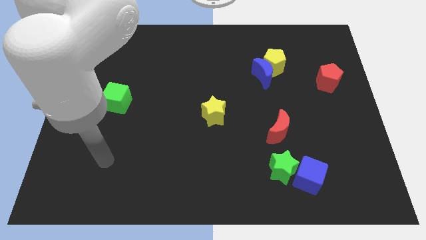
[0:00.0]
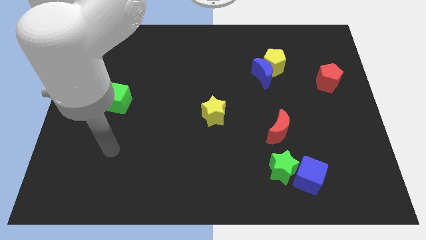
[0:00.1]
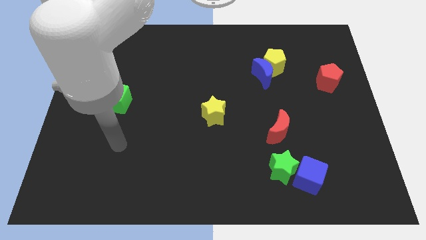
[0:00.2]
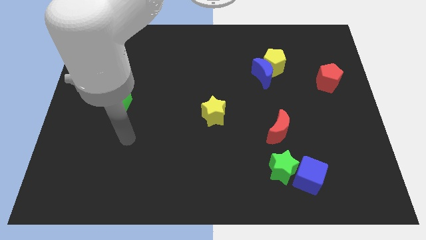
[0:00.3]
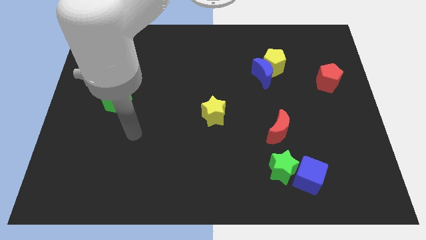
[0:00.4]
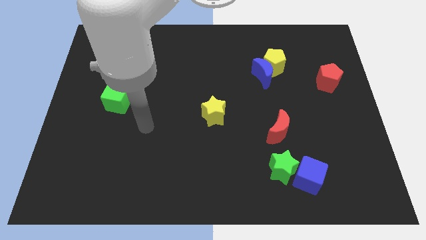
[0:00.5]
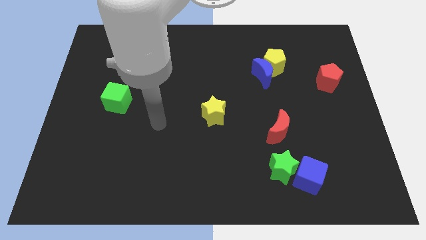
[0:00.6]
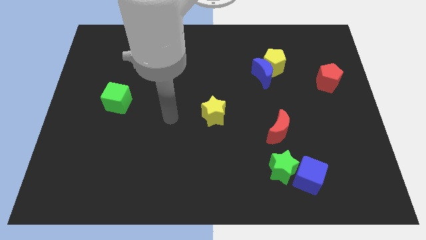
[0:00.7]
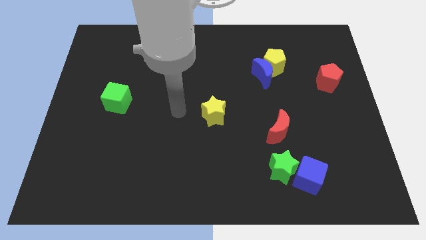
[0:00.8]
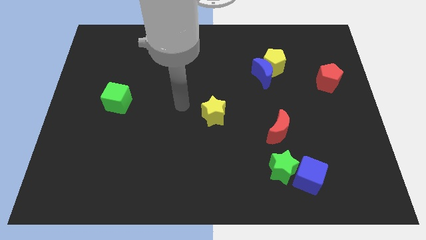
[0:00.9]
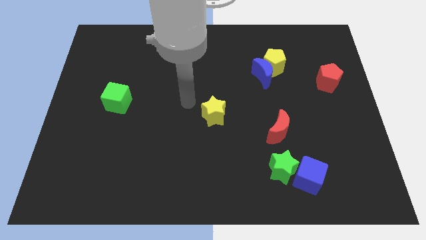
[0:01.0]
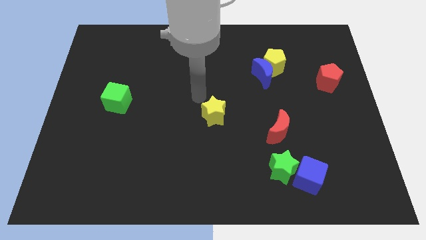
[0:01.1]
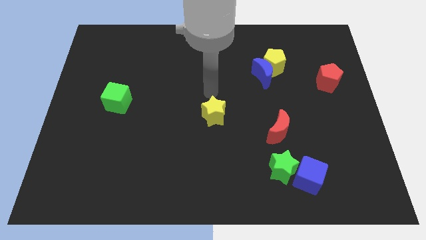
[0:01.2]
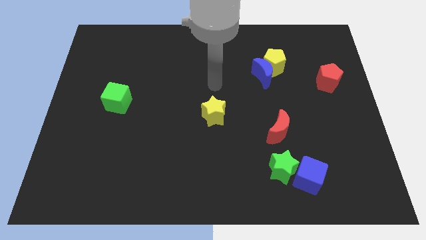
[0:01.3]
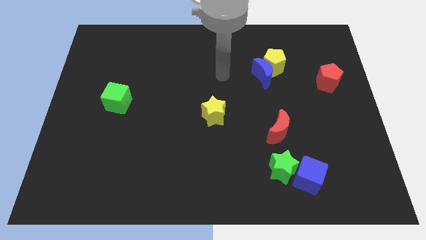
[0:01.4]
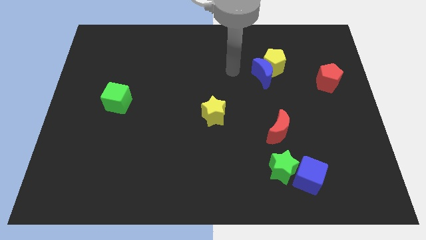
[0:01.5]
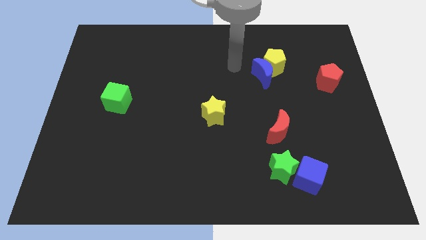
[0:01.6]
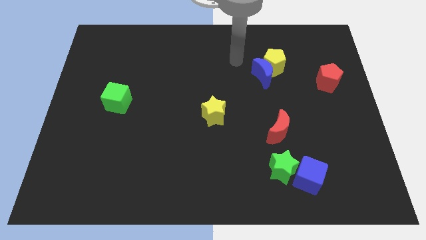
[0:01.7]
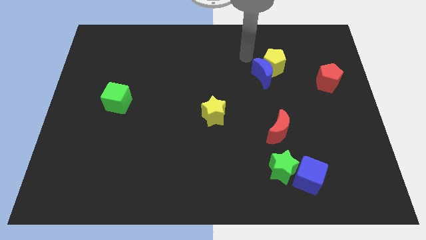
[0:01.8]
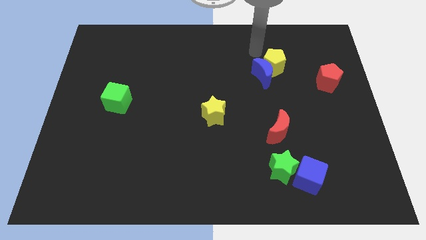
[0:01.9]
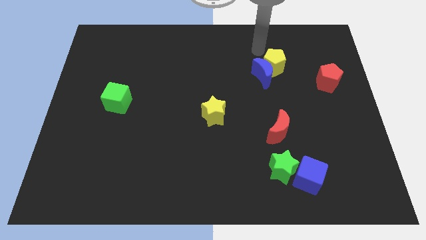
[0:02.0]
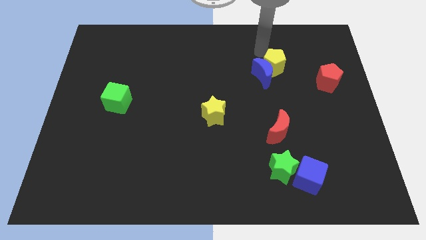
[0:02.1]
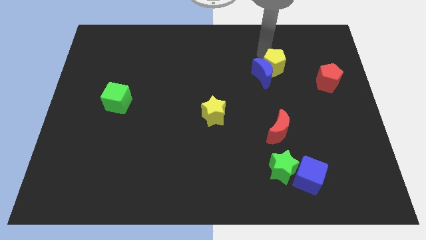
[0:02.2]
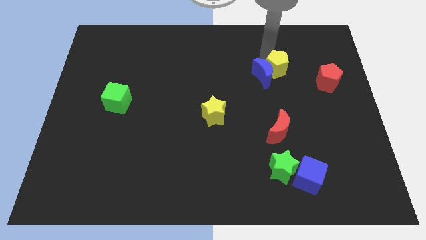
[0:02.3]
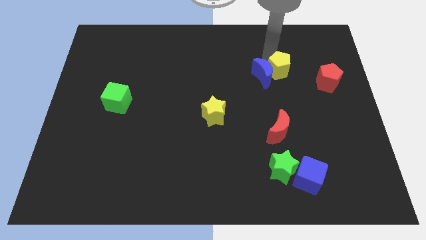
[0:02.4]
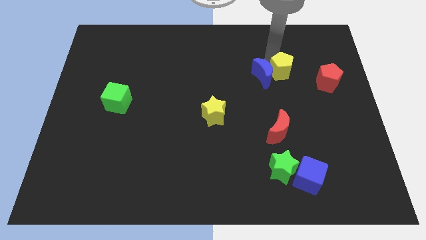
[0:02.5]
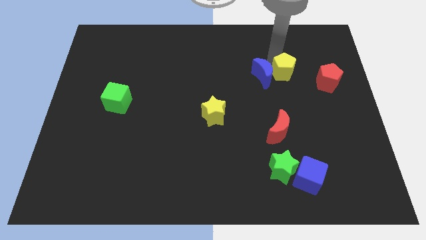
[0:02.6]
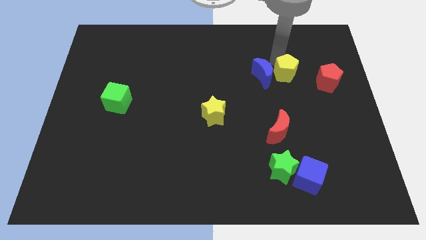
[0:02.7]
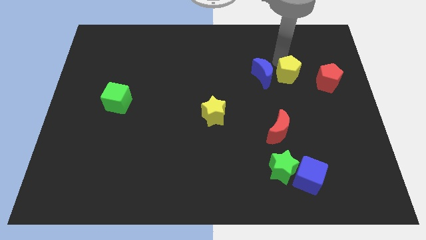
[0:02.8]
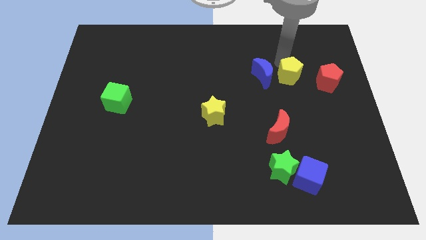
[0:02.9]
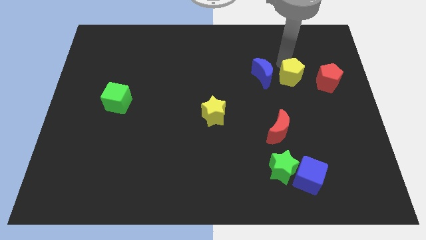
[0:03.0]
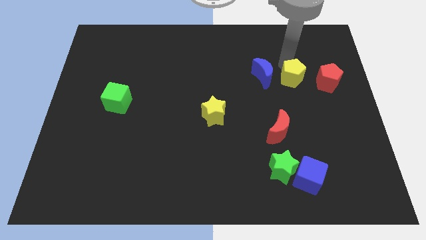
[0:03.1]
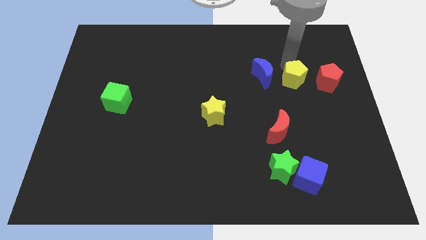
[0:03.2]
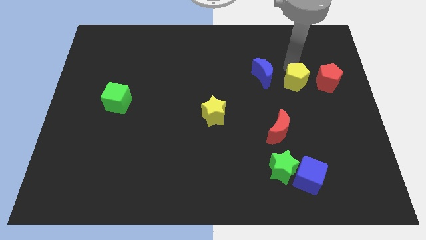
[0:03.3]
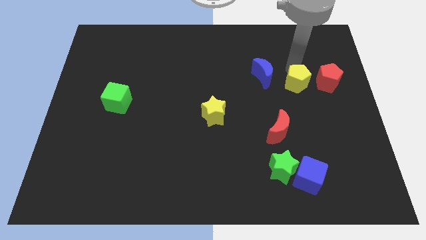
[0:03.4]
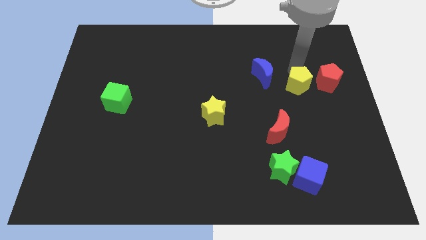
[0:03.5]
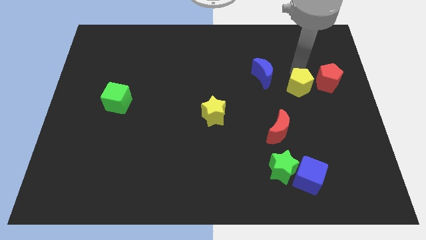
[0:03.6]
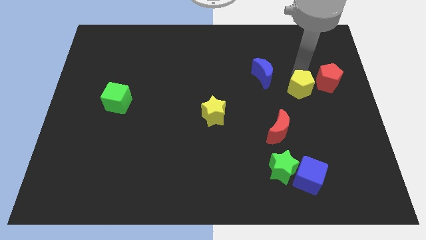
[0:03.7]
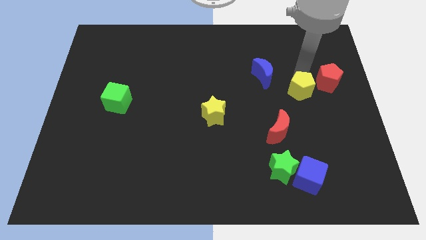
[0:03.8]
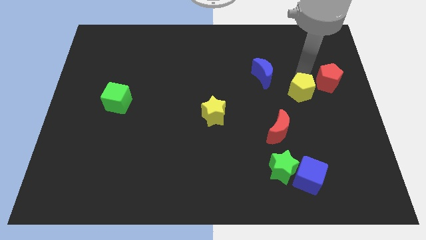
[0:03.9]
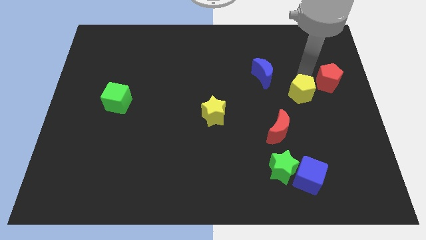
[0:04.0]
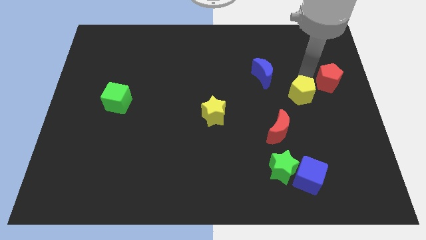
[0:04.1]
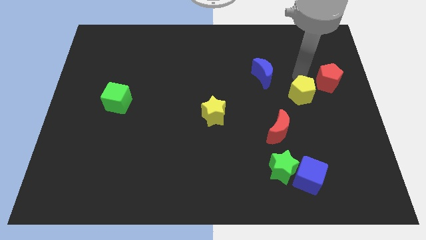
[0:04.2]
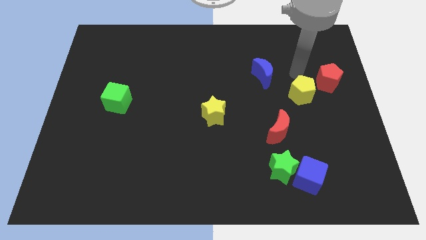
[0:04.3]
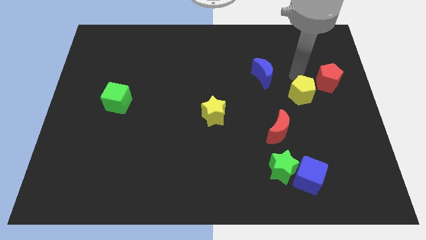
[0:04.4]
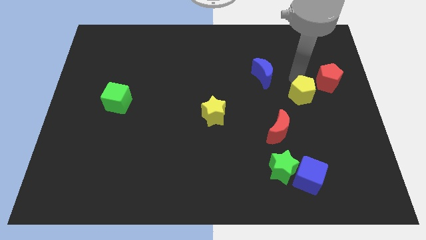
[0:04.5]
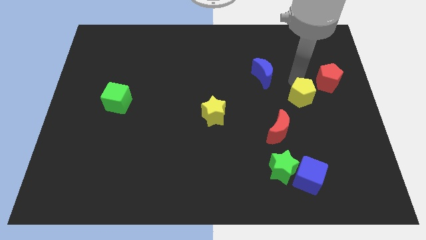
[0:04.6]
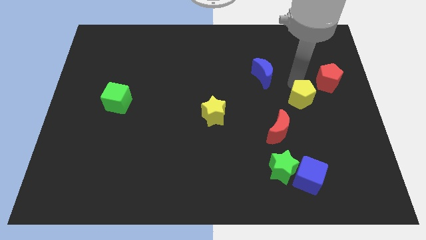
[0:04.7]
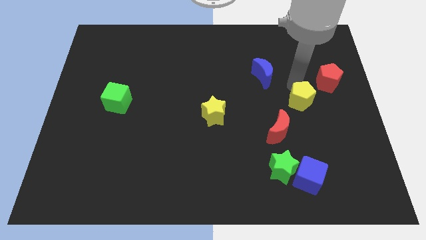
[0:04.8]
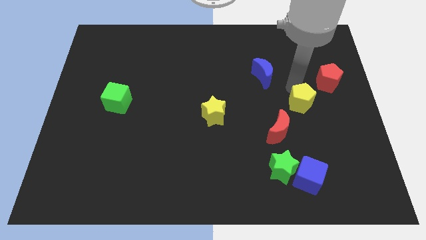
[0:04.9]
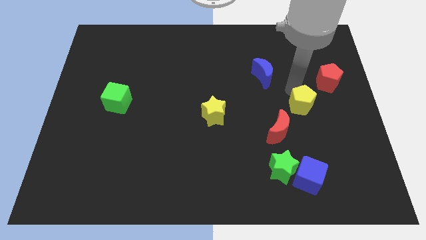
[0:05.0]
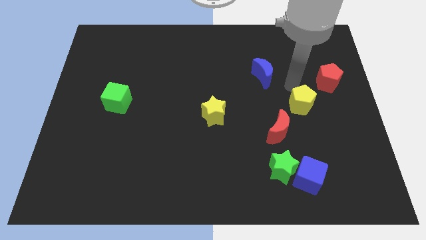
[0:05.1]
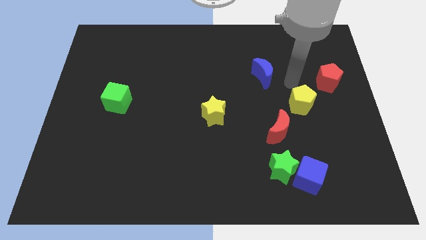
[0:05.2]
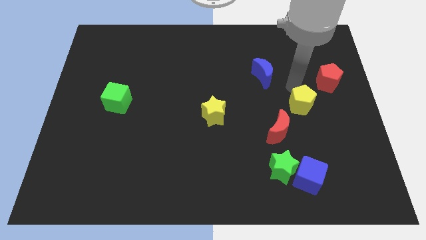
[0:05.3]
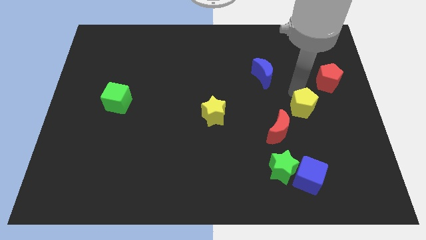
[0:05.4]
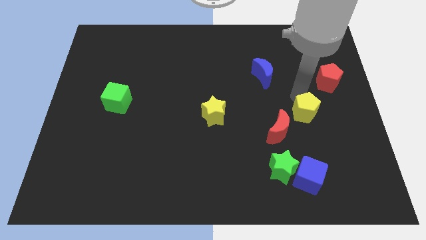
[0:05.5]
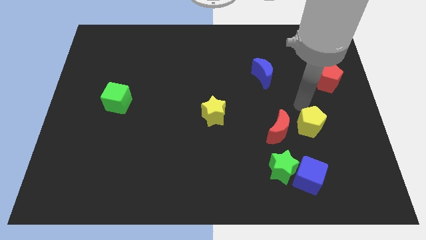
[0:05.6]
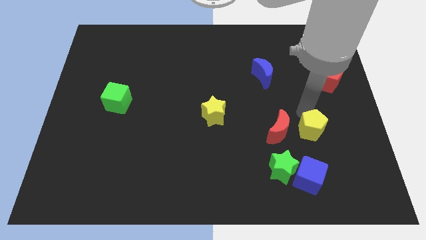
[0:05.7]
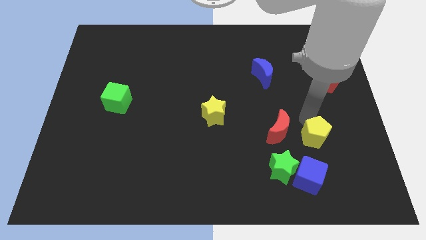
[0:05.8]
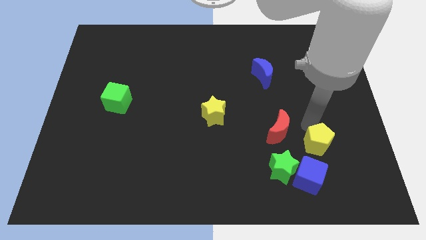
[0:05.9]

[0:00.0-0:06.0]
move the yellow pentagon to the top right side of the blue cube

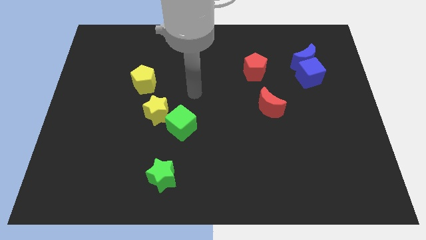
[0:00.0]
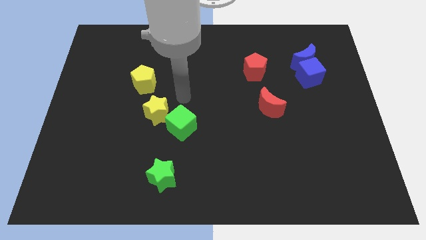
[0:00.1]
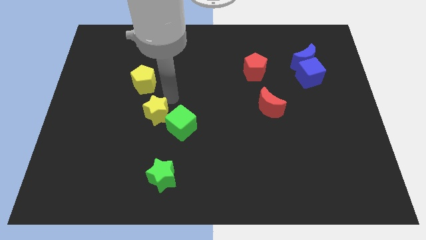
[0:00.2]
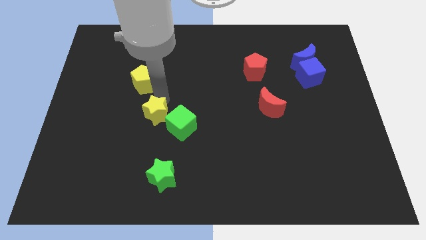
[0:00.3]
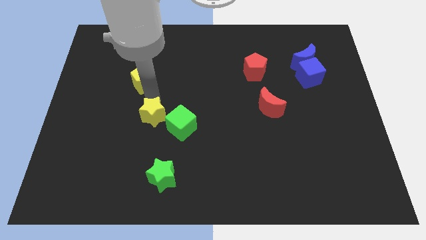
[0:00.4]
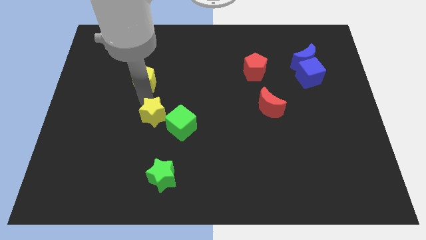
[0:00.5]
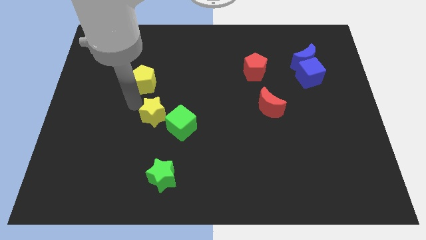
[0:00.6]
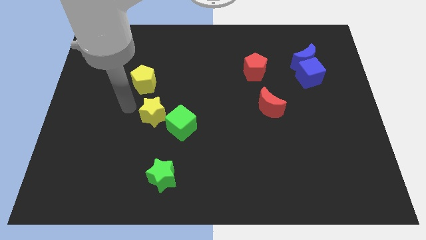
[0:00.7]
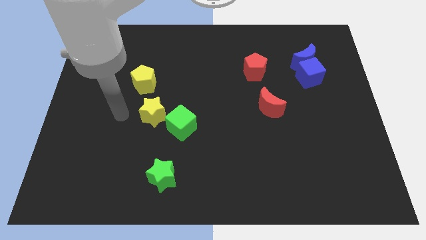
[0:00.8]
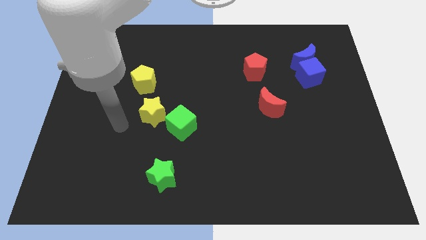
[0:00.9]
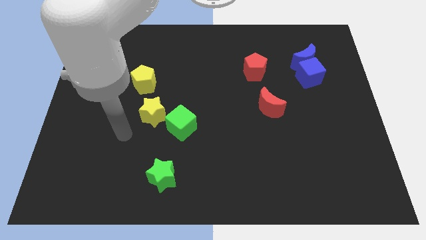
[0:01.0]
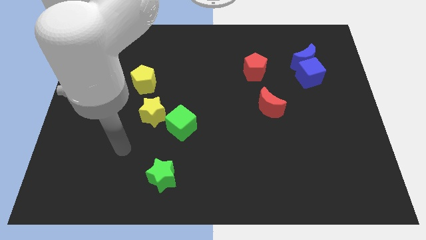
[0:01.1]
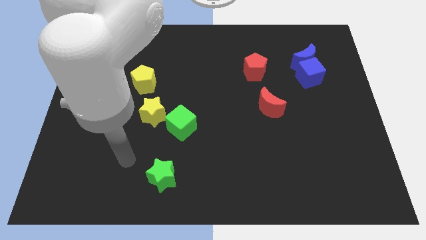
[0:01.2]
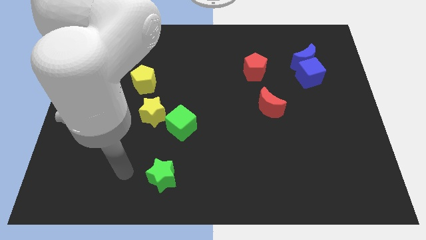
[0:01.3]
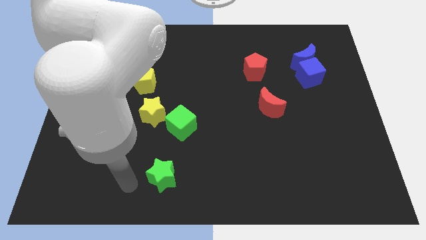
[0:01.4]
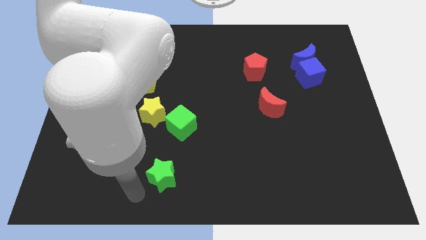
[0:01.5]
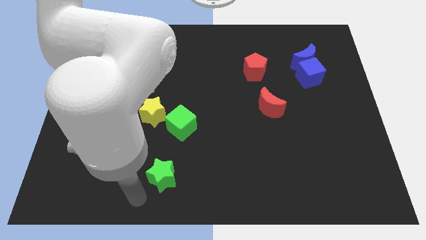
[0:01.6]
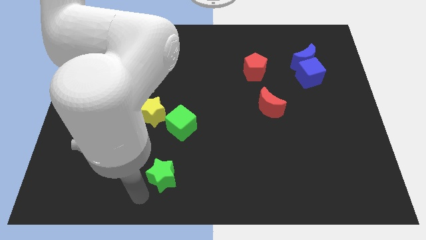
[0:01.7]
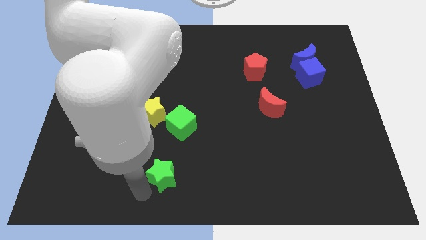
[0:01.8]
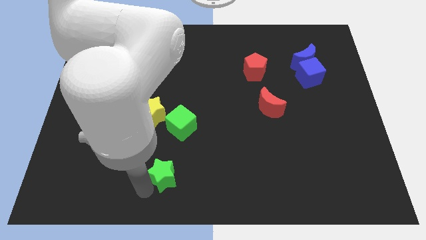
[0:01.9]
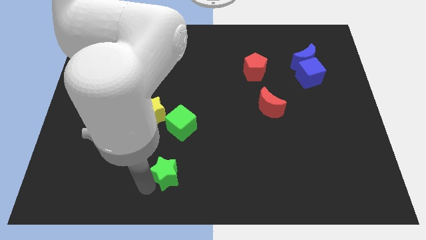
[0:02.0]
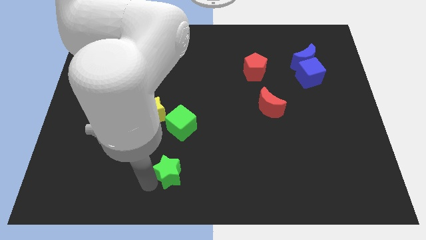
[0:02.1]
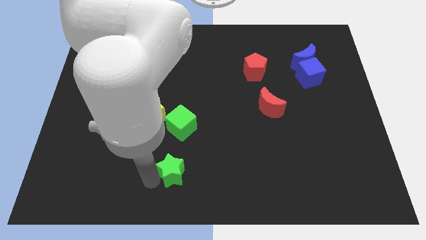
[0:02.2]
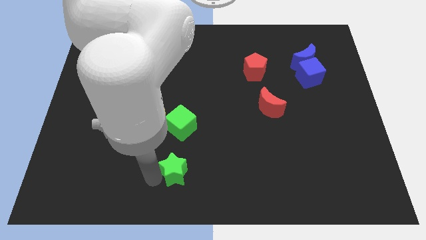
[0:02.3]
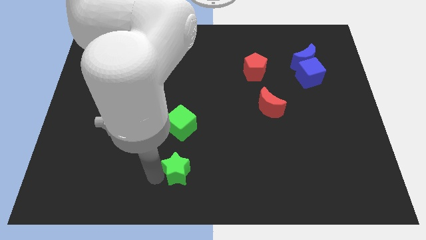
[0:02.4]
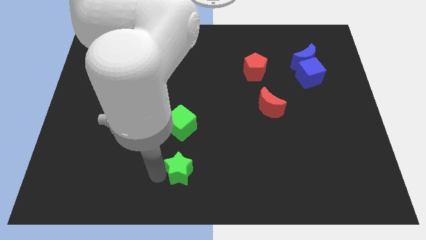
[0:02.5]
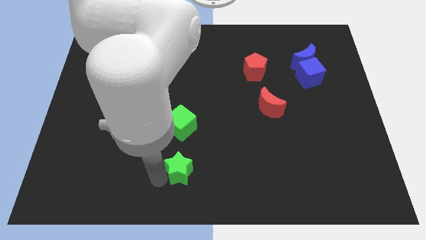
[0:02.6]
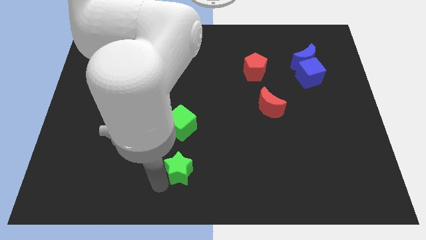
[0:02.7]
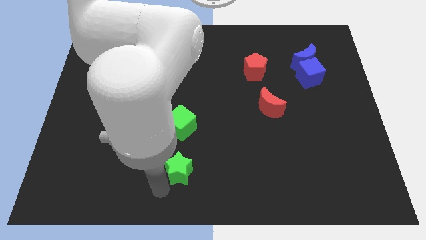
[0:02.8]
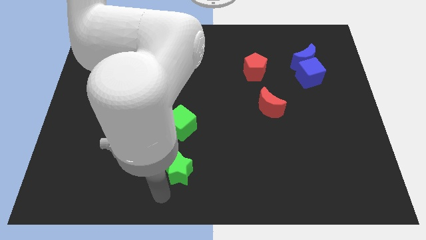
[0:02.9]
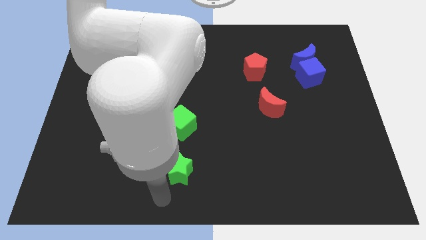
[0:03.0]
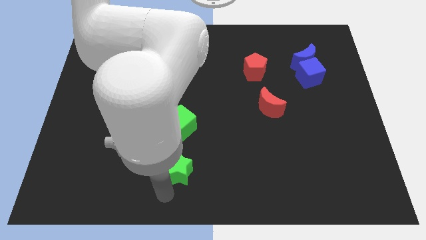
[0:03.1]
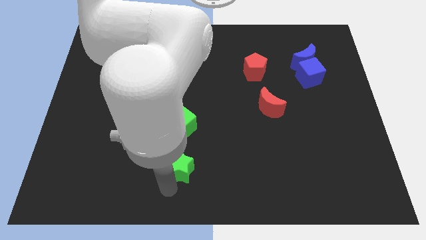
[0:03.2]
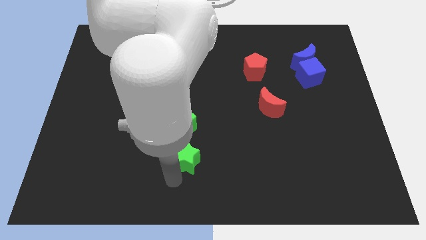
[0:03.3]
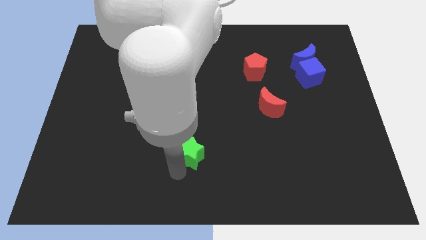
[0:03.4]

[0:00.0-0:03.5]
put the green star to the bottom right of the green cube
